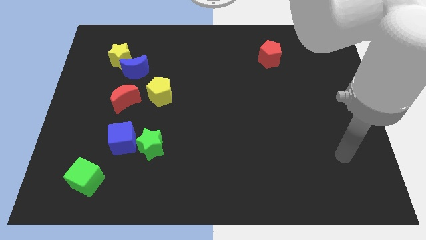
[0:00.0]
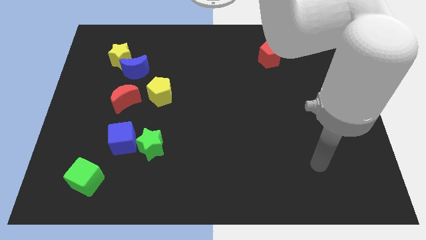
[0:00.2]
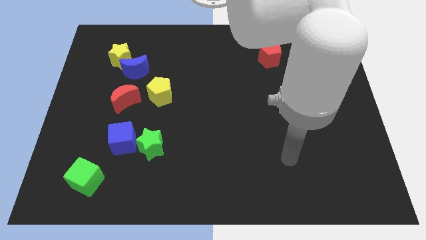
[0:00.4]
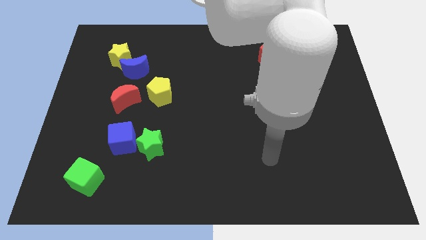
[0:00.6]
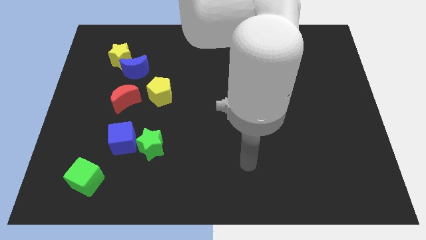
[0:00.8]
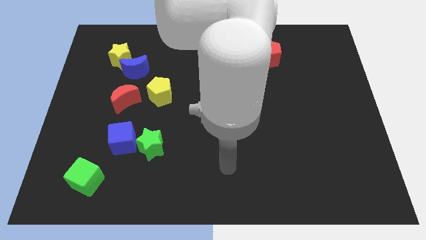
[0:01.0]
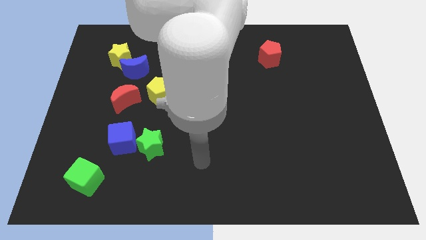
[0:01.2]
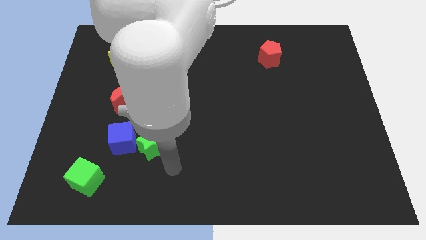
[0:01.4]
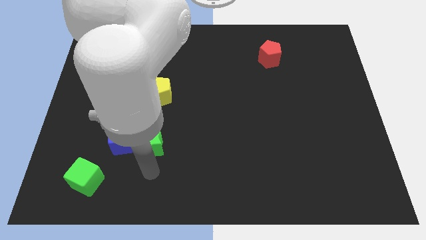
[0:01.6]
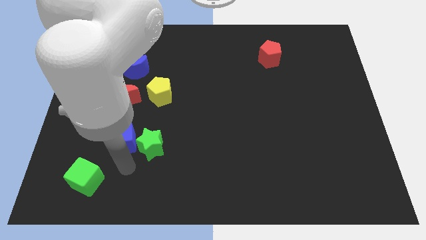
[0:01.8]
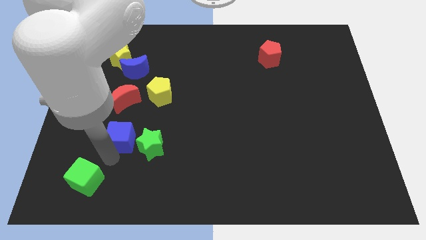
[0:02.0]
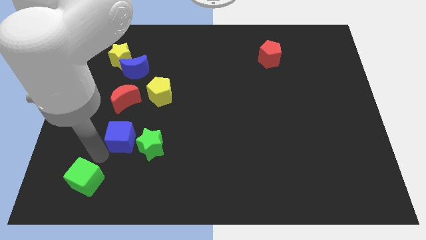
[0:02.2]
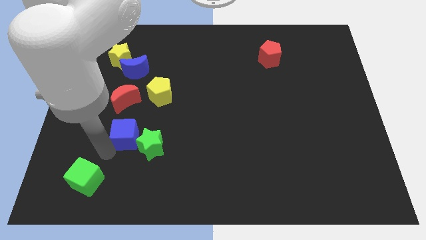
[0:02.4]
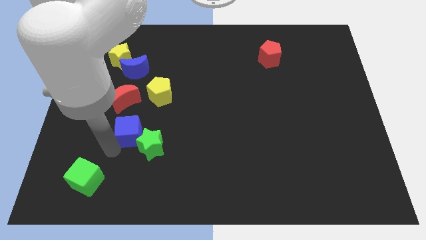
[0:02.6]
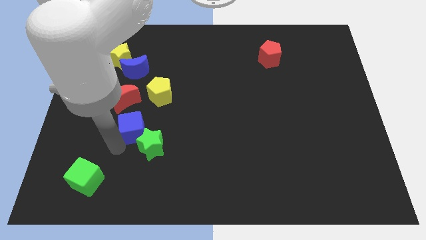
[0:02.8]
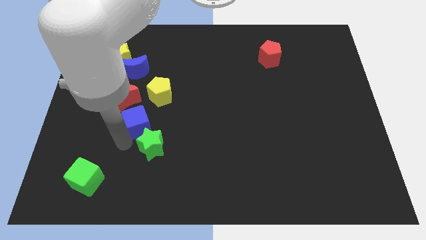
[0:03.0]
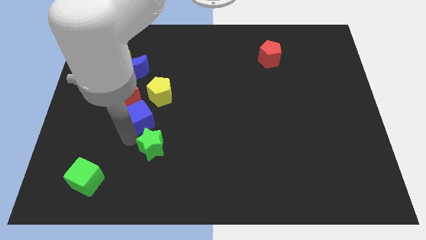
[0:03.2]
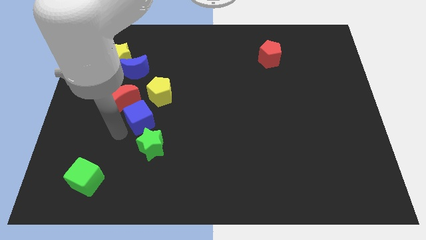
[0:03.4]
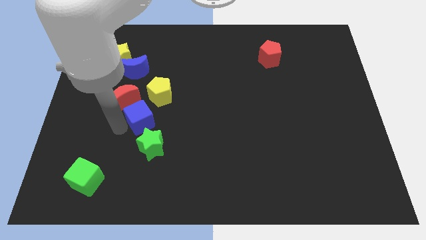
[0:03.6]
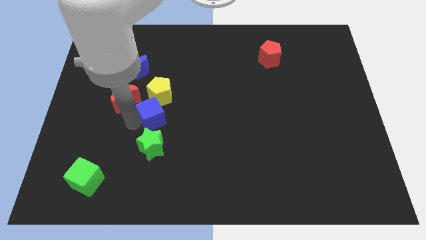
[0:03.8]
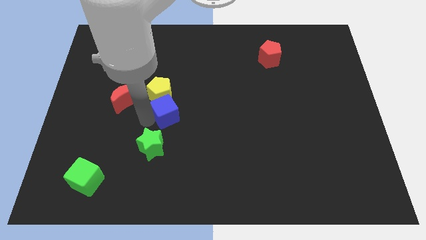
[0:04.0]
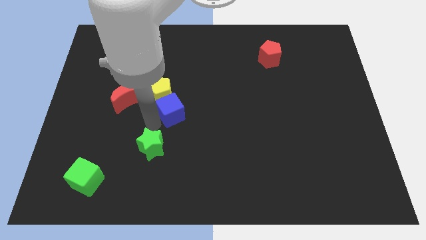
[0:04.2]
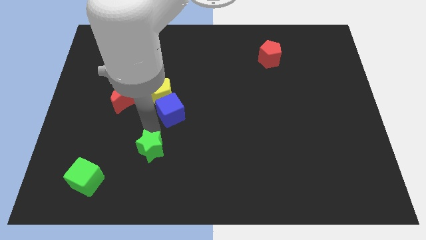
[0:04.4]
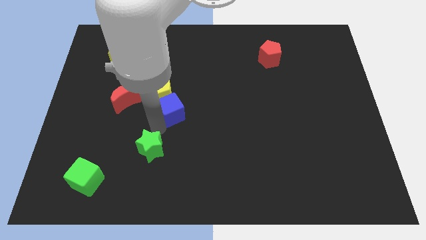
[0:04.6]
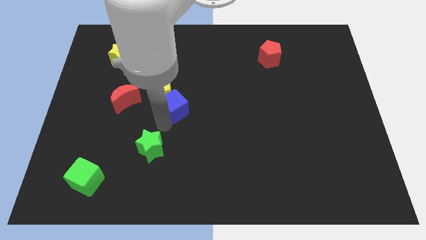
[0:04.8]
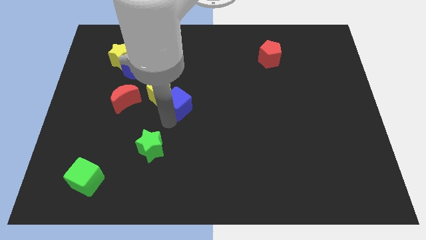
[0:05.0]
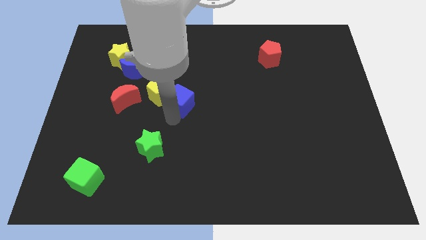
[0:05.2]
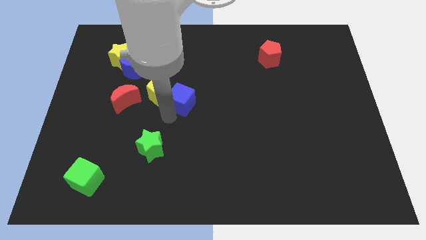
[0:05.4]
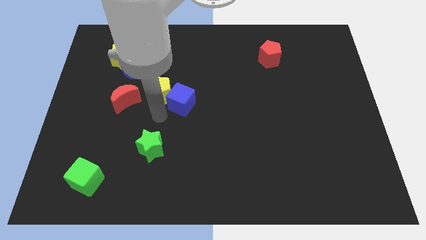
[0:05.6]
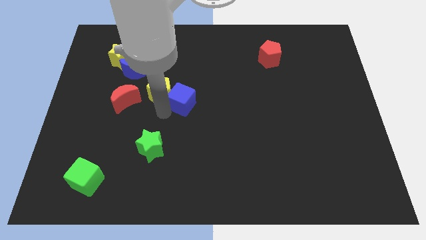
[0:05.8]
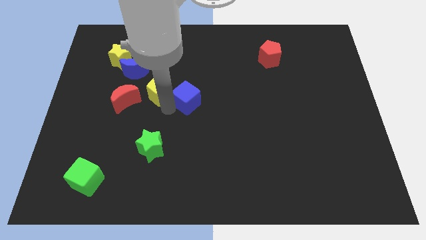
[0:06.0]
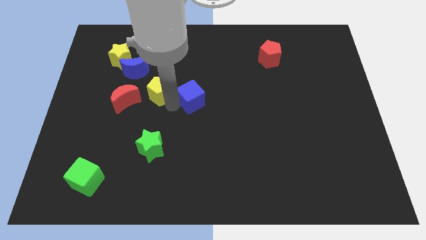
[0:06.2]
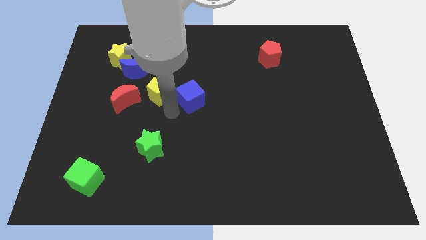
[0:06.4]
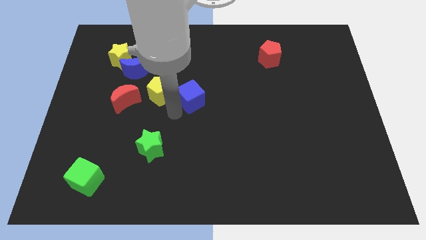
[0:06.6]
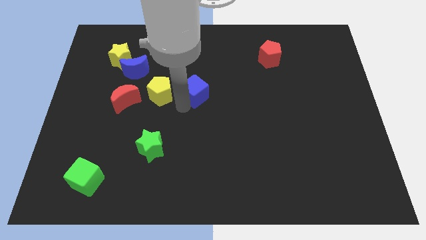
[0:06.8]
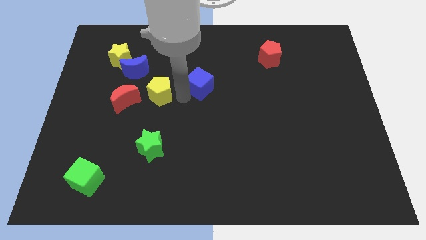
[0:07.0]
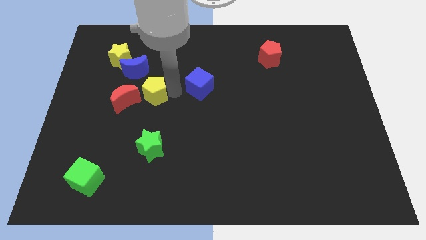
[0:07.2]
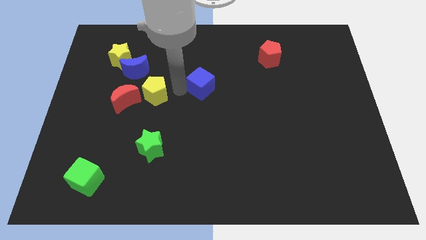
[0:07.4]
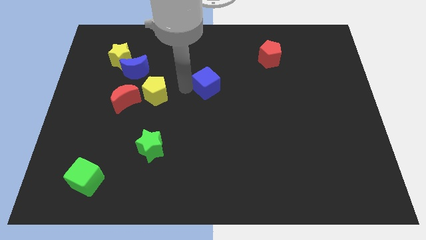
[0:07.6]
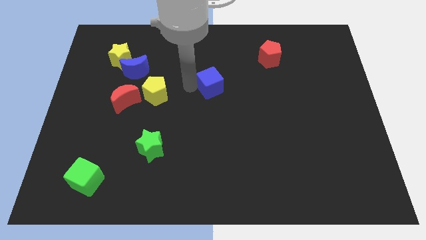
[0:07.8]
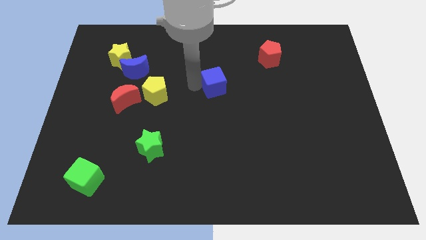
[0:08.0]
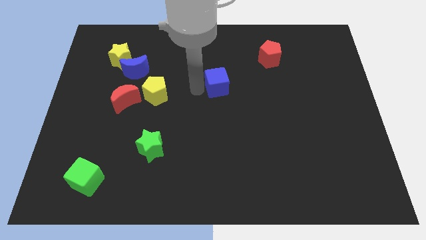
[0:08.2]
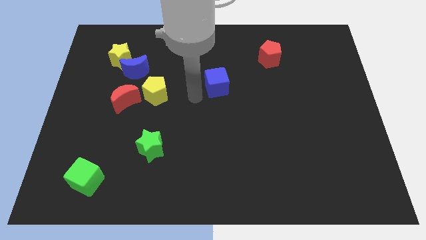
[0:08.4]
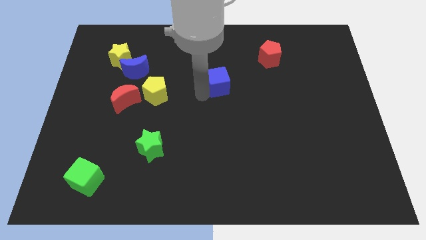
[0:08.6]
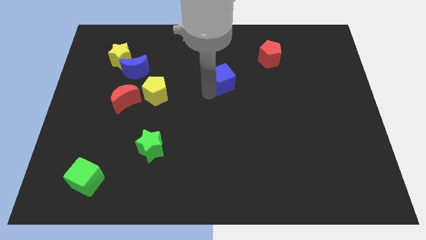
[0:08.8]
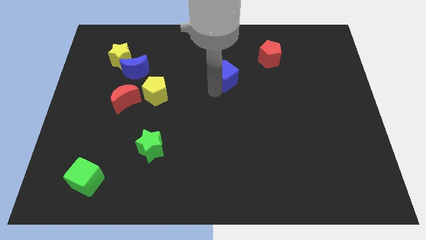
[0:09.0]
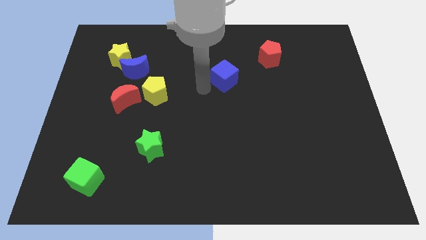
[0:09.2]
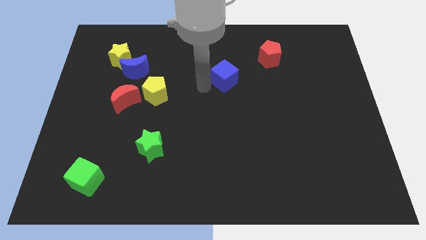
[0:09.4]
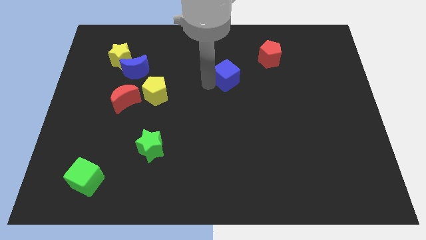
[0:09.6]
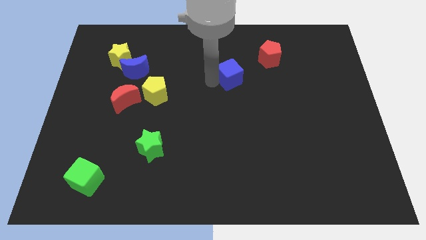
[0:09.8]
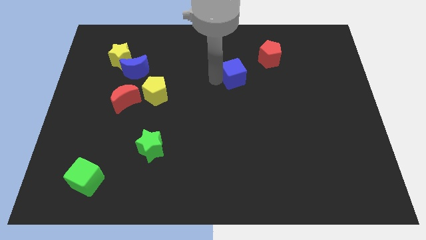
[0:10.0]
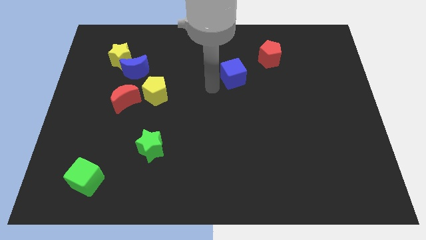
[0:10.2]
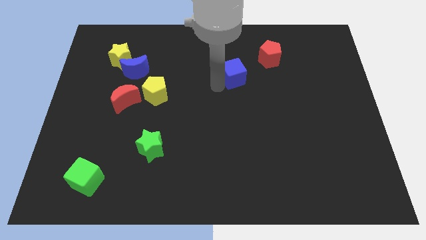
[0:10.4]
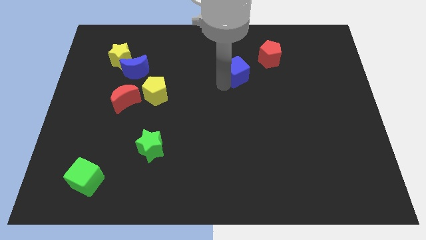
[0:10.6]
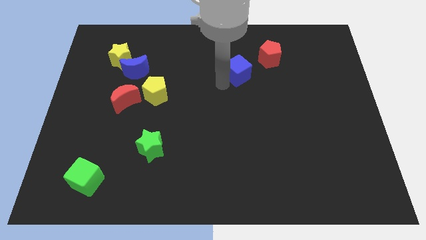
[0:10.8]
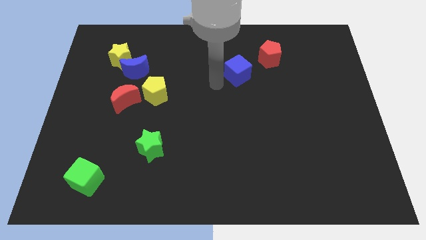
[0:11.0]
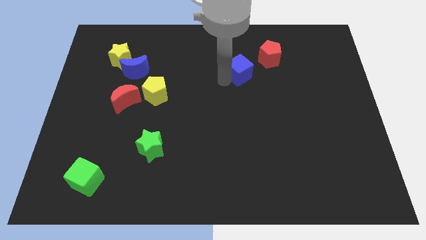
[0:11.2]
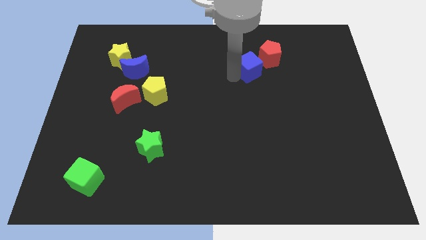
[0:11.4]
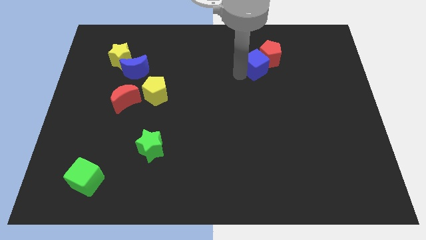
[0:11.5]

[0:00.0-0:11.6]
move the blue cube close to the red pentagon

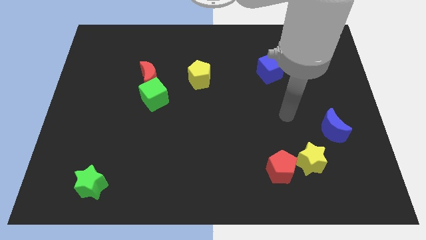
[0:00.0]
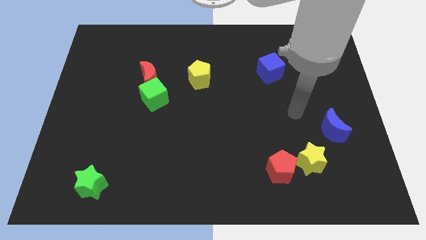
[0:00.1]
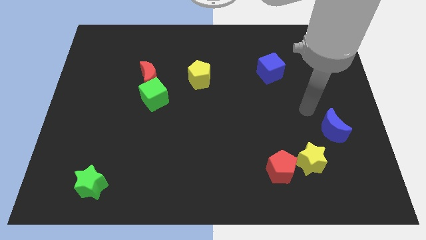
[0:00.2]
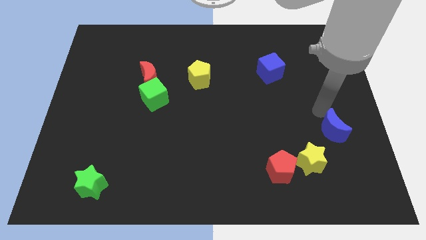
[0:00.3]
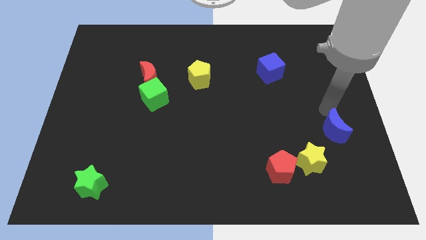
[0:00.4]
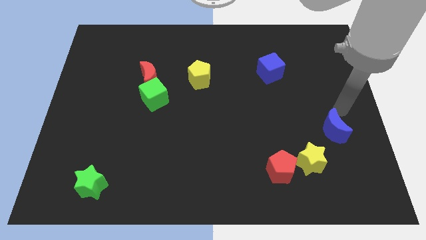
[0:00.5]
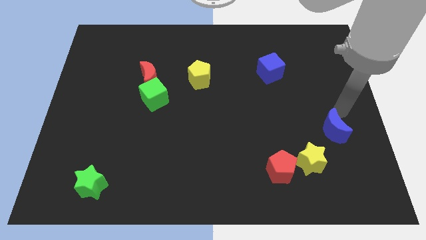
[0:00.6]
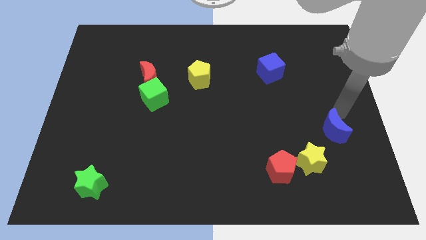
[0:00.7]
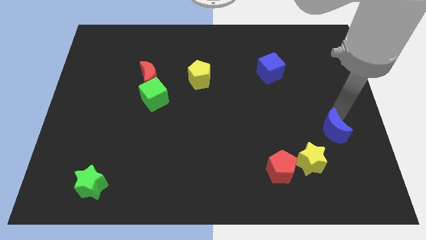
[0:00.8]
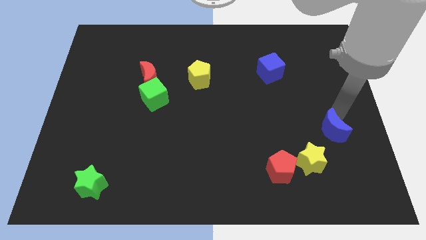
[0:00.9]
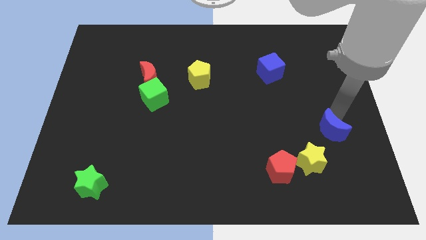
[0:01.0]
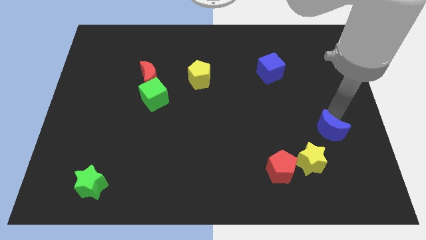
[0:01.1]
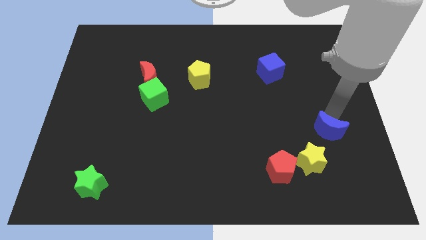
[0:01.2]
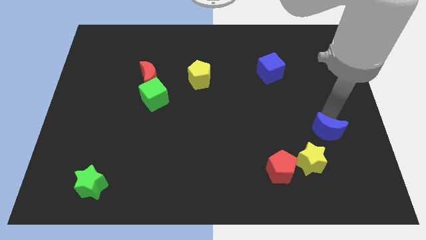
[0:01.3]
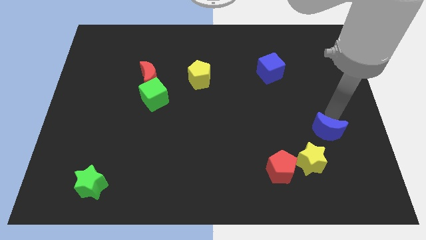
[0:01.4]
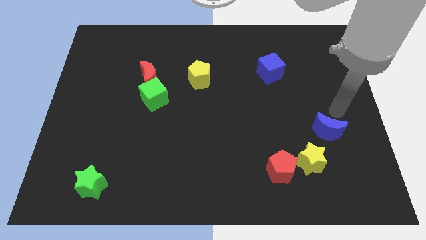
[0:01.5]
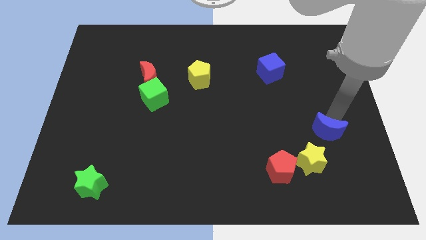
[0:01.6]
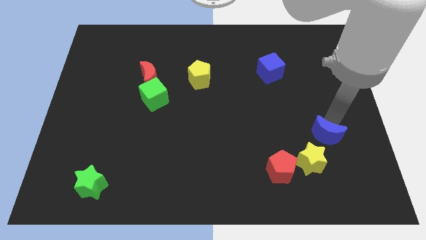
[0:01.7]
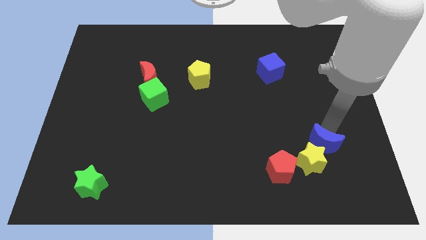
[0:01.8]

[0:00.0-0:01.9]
put the blue moon towards the yellow star

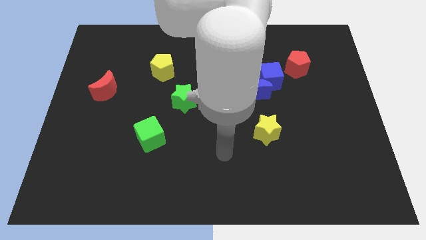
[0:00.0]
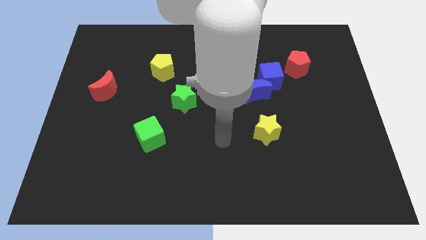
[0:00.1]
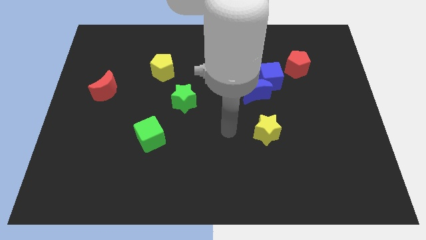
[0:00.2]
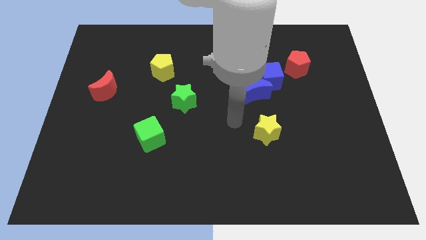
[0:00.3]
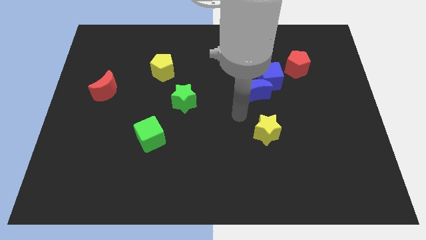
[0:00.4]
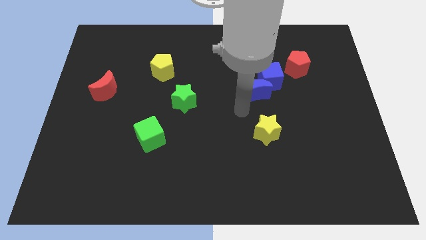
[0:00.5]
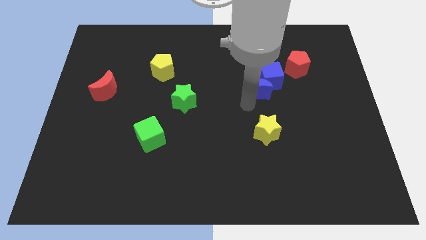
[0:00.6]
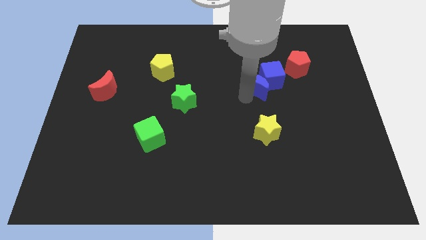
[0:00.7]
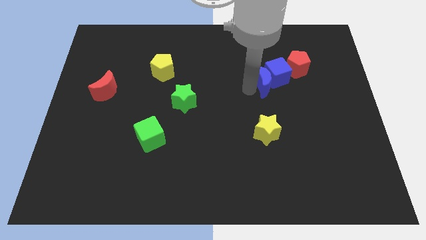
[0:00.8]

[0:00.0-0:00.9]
slide the blue cube close to the red pentagon
